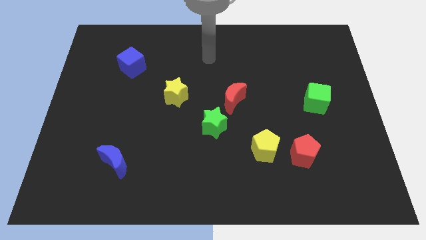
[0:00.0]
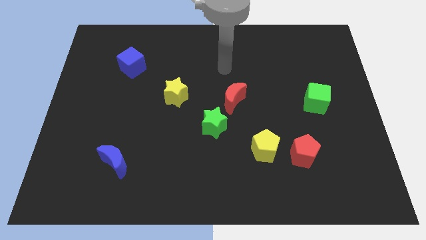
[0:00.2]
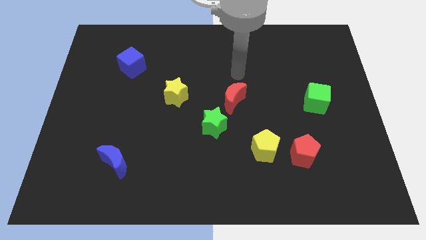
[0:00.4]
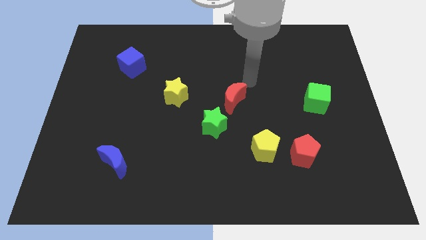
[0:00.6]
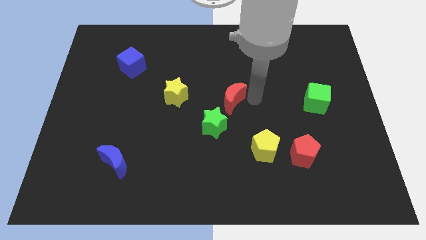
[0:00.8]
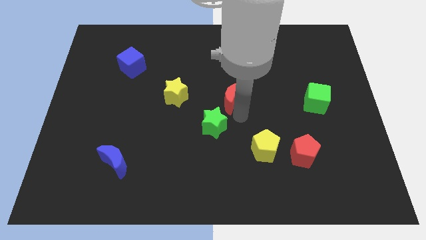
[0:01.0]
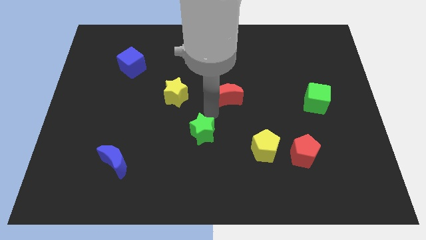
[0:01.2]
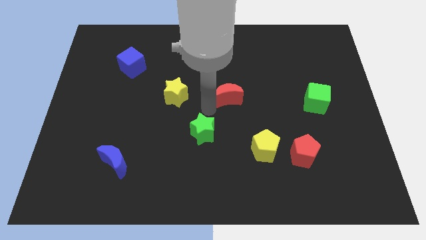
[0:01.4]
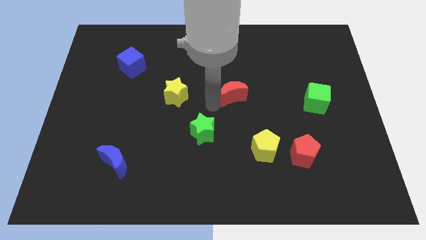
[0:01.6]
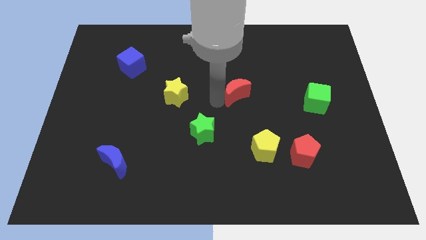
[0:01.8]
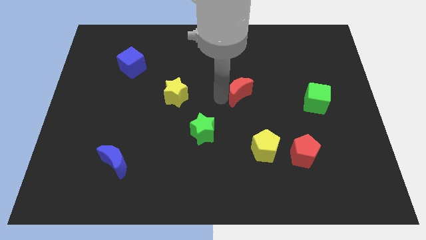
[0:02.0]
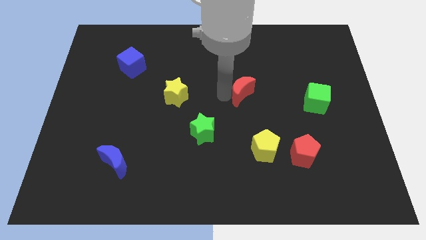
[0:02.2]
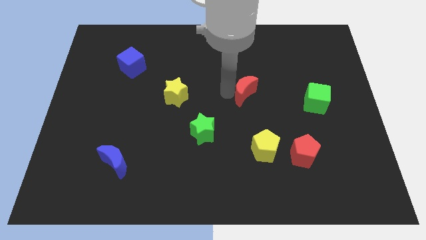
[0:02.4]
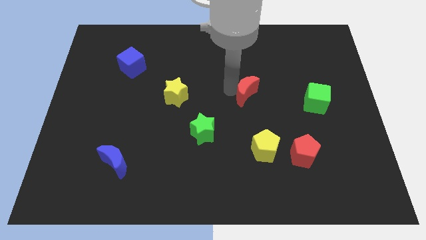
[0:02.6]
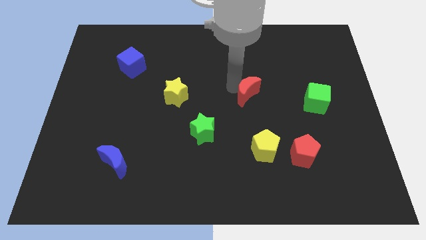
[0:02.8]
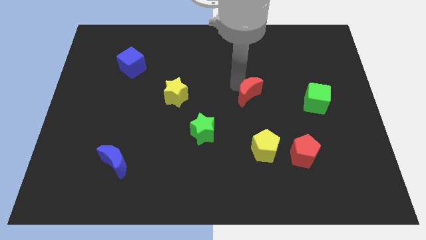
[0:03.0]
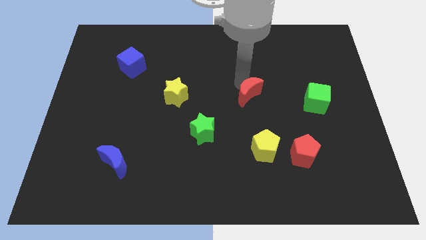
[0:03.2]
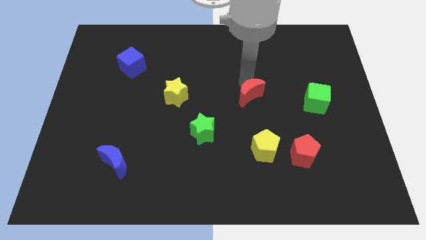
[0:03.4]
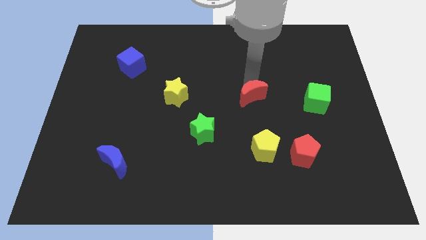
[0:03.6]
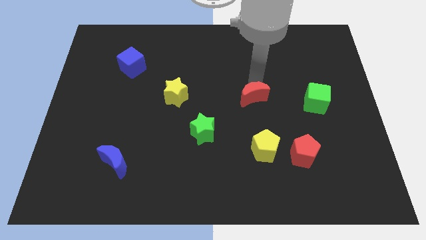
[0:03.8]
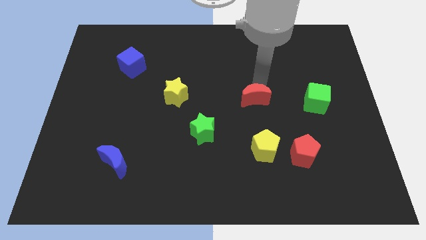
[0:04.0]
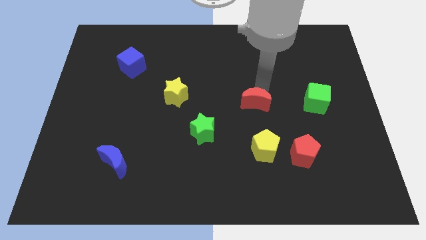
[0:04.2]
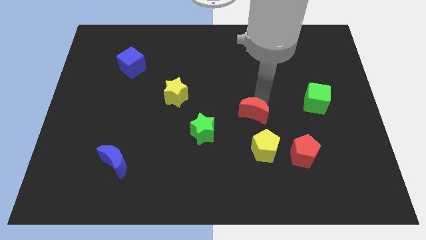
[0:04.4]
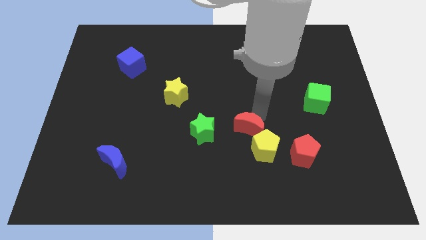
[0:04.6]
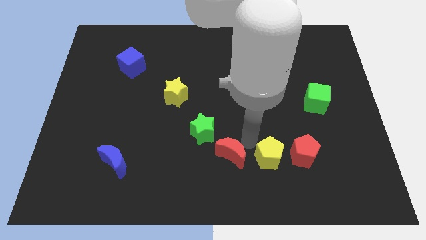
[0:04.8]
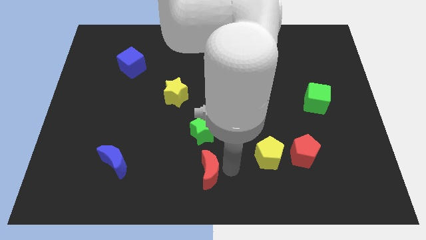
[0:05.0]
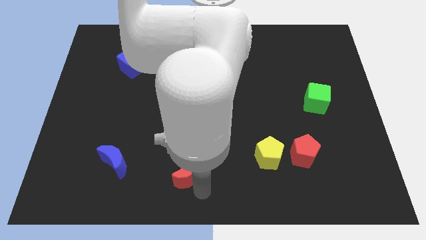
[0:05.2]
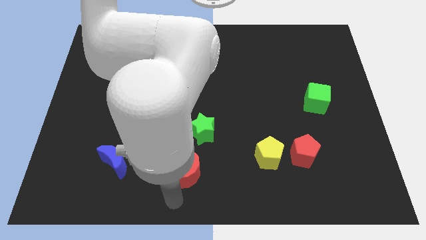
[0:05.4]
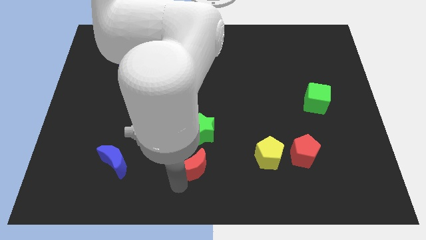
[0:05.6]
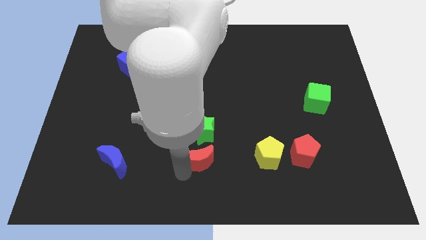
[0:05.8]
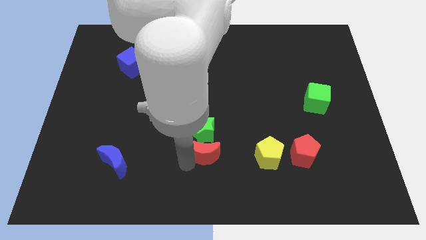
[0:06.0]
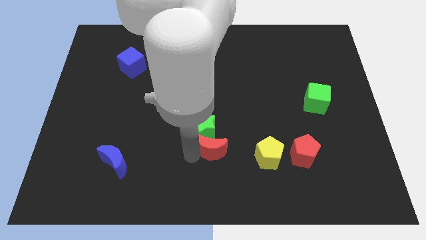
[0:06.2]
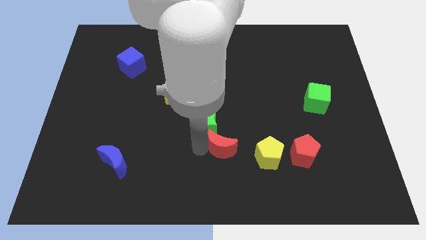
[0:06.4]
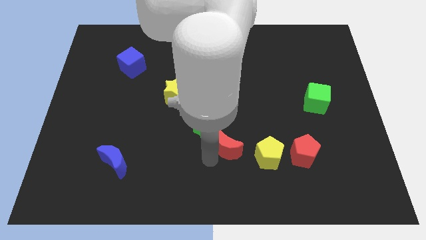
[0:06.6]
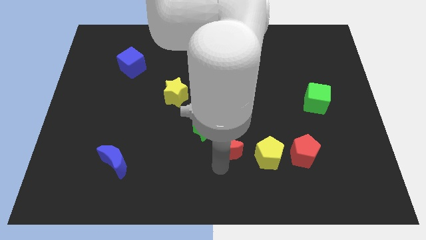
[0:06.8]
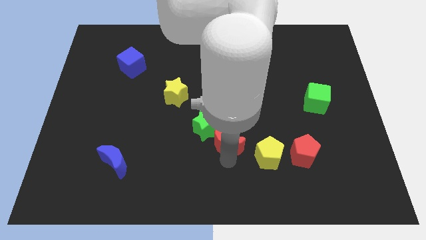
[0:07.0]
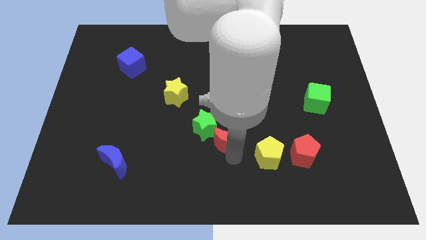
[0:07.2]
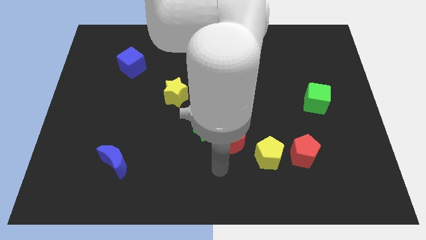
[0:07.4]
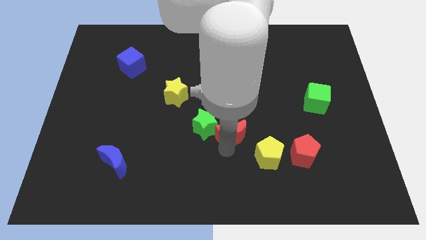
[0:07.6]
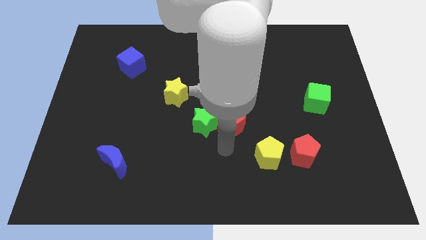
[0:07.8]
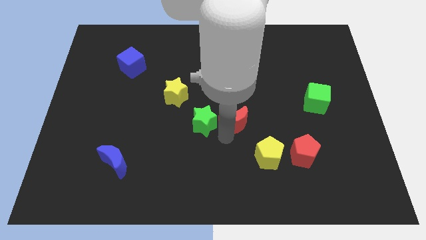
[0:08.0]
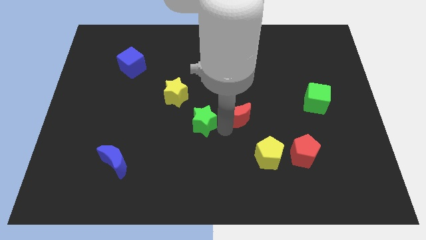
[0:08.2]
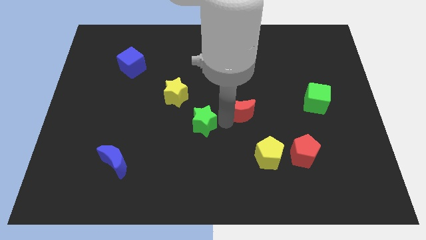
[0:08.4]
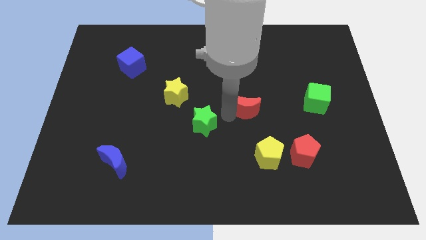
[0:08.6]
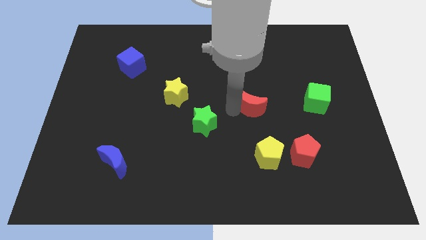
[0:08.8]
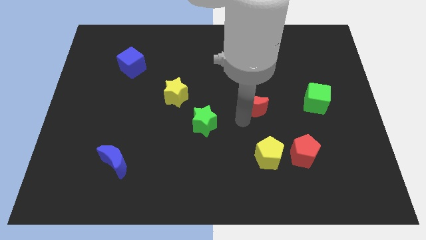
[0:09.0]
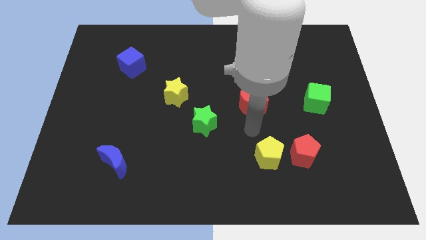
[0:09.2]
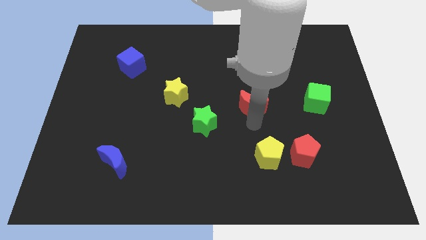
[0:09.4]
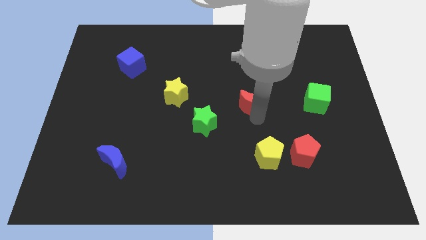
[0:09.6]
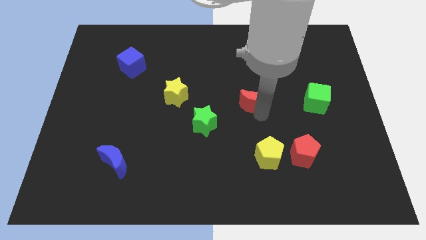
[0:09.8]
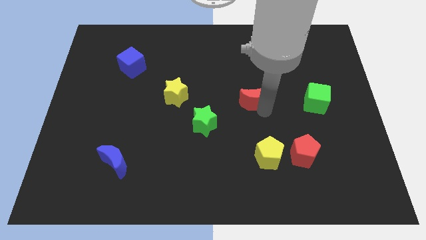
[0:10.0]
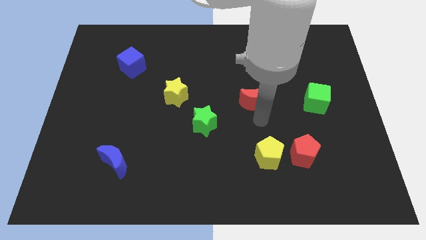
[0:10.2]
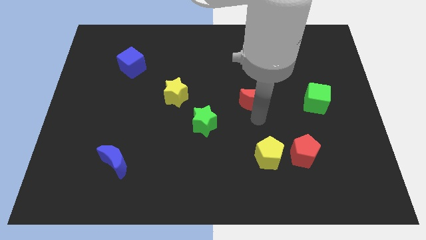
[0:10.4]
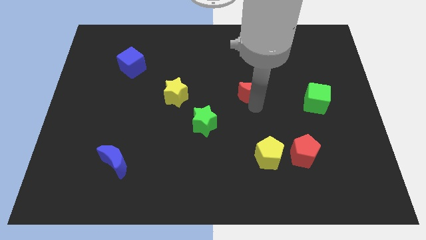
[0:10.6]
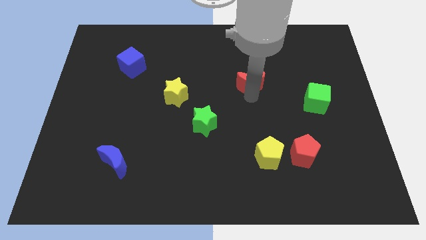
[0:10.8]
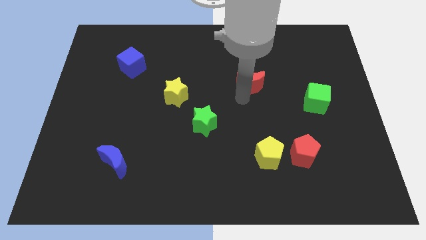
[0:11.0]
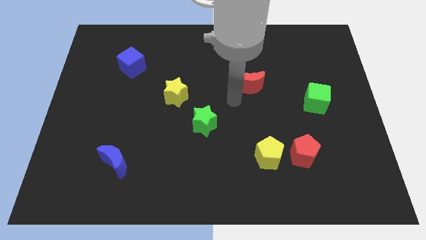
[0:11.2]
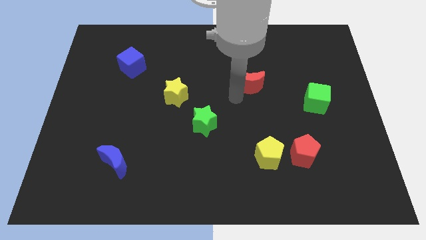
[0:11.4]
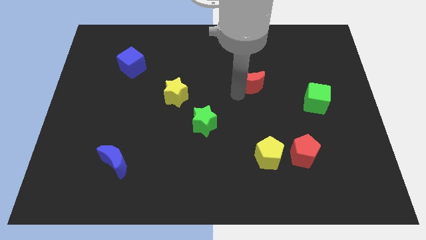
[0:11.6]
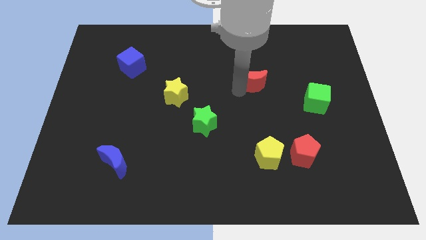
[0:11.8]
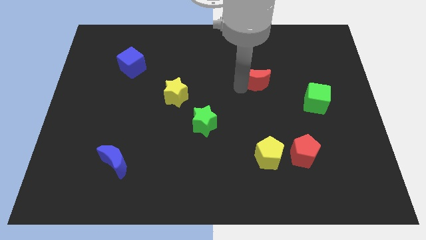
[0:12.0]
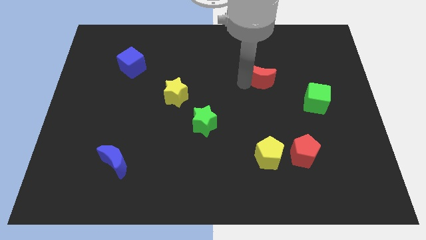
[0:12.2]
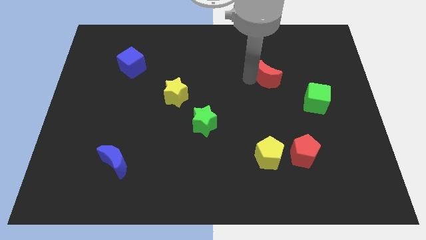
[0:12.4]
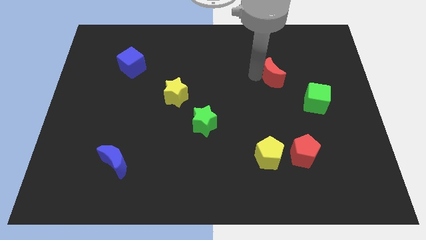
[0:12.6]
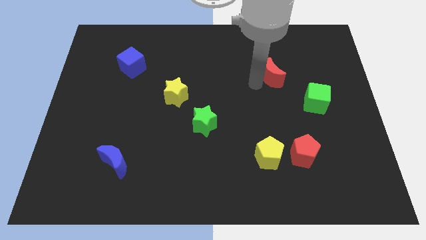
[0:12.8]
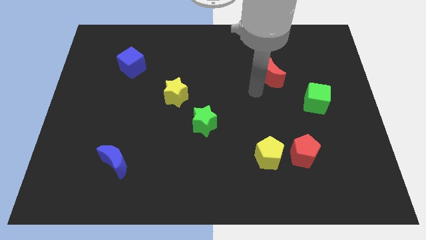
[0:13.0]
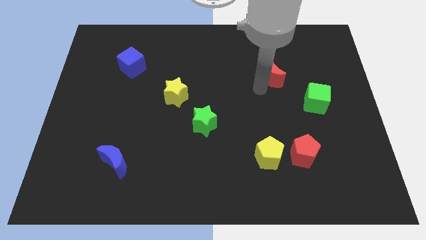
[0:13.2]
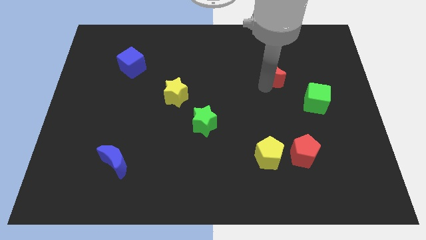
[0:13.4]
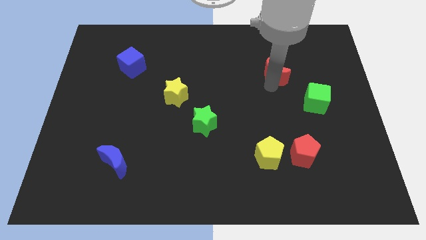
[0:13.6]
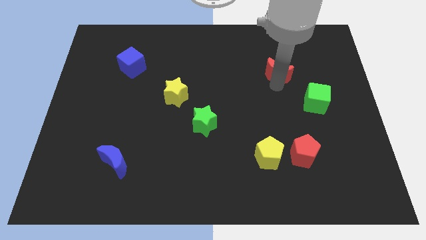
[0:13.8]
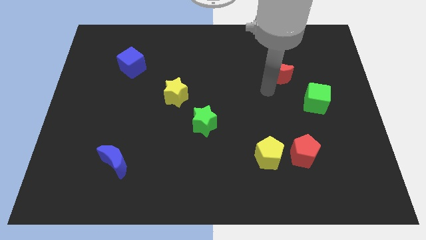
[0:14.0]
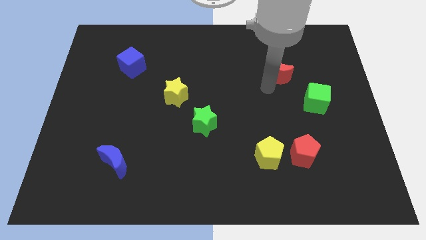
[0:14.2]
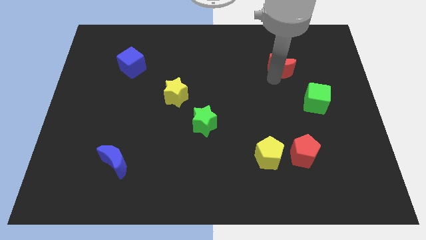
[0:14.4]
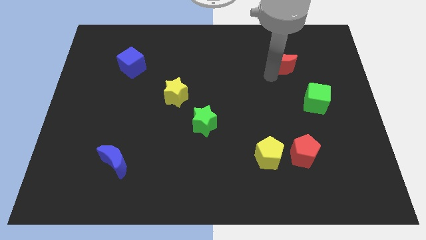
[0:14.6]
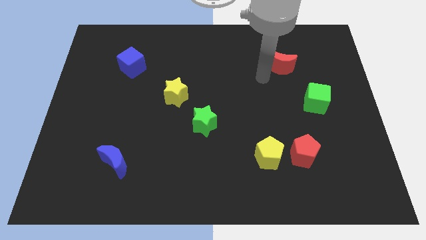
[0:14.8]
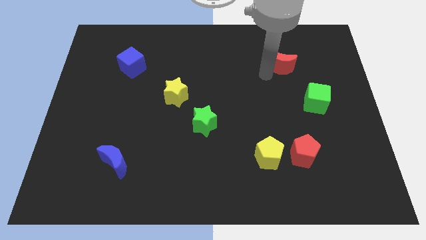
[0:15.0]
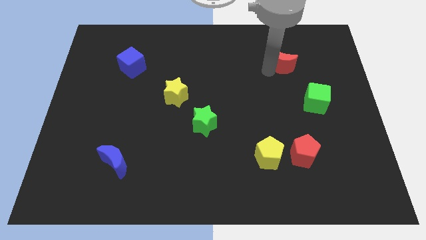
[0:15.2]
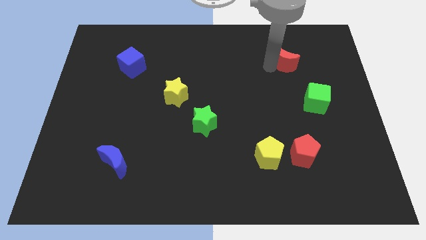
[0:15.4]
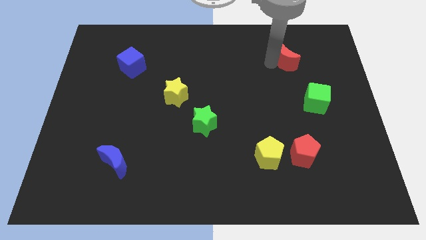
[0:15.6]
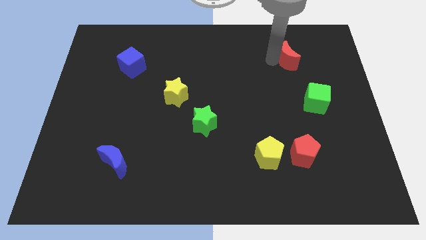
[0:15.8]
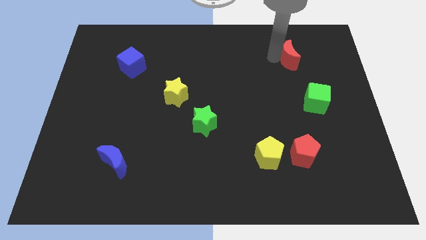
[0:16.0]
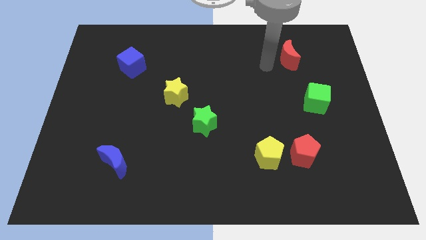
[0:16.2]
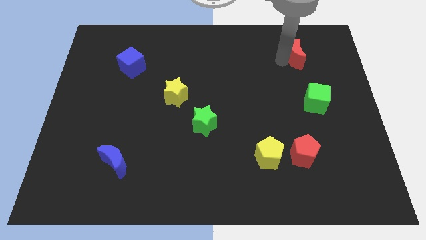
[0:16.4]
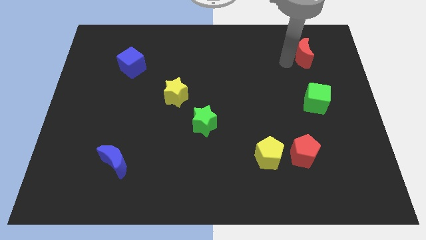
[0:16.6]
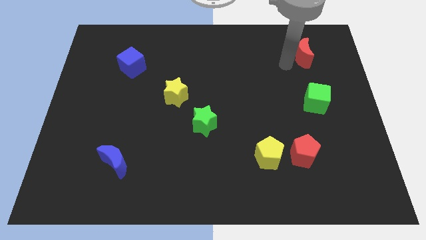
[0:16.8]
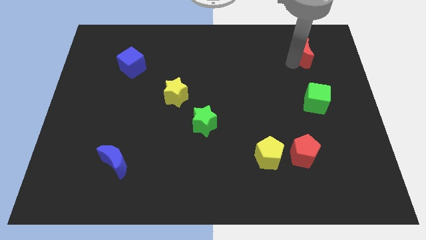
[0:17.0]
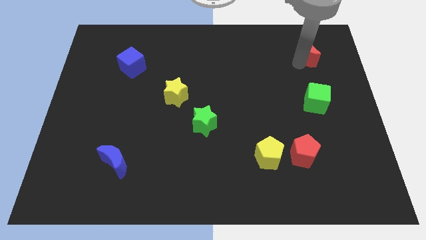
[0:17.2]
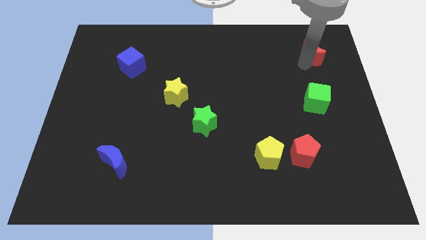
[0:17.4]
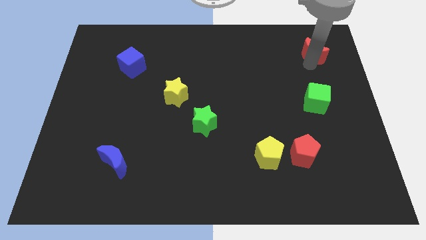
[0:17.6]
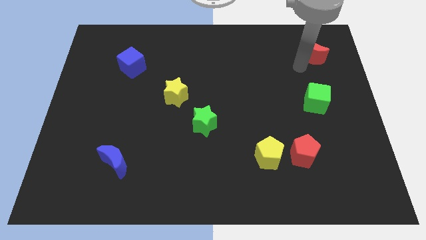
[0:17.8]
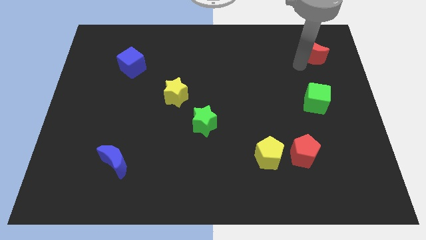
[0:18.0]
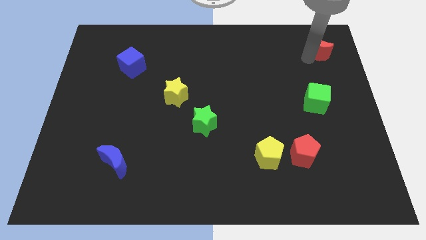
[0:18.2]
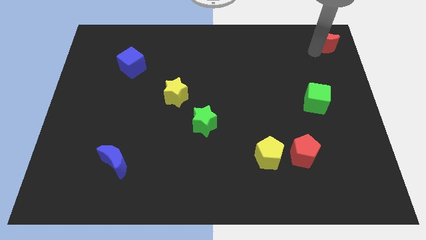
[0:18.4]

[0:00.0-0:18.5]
move the red moon to the upper right corner
